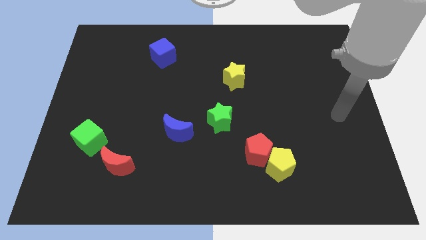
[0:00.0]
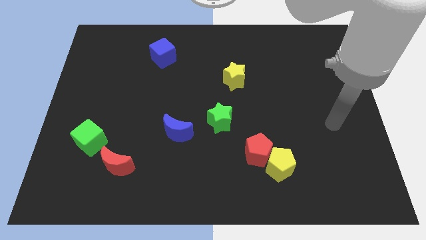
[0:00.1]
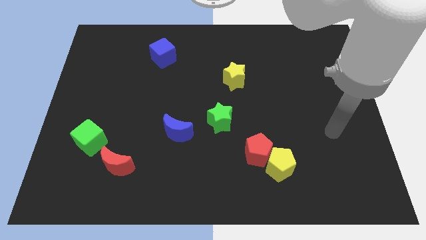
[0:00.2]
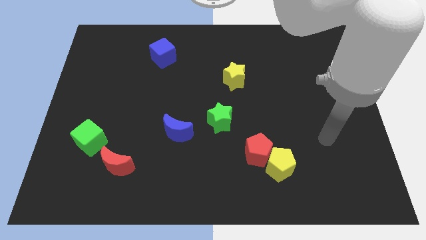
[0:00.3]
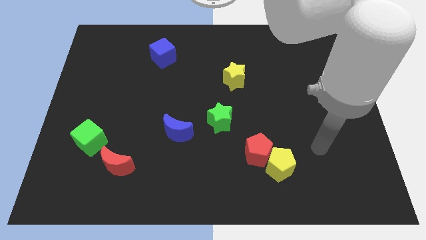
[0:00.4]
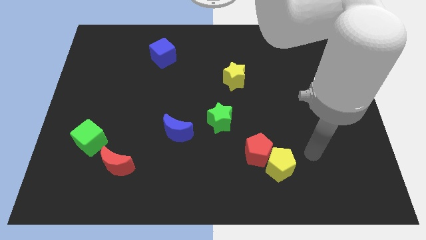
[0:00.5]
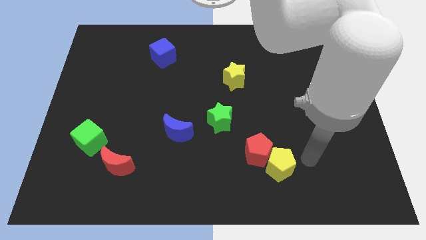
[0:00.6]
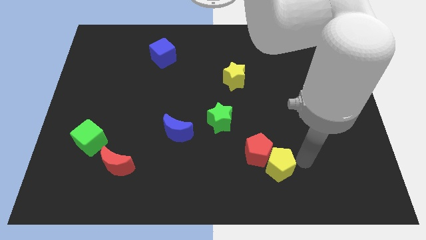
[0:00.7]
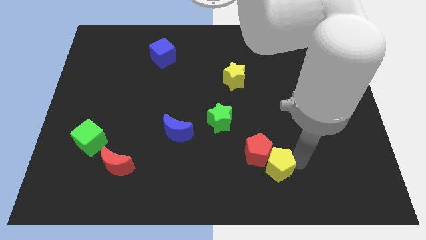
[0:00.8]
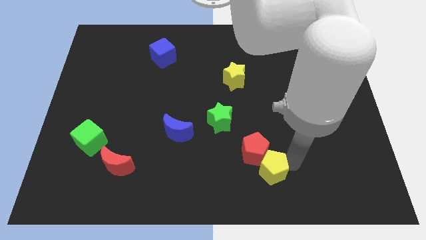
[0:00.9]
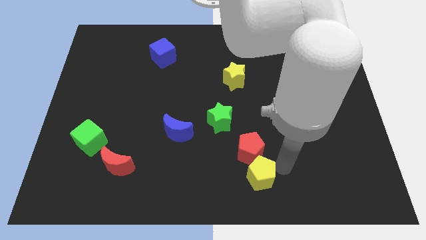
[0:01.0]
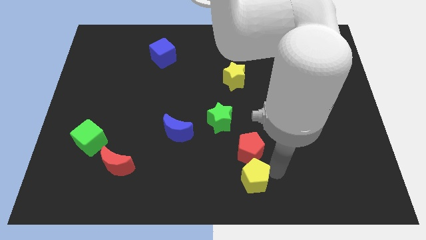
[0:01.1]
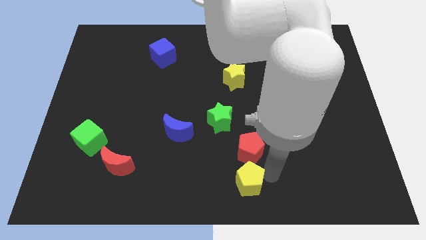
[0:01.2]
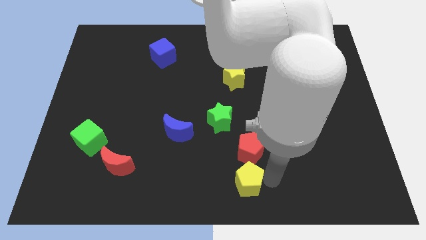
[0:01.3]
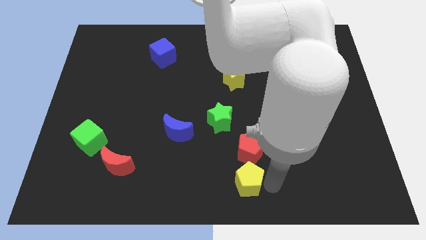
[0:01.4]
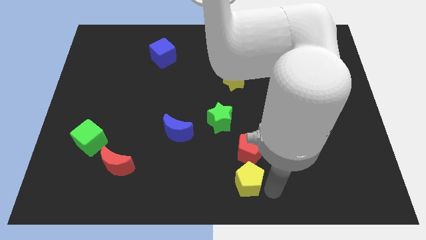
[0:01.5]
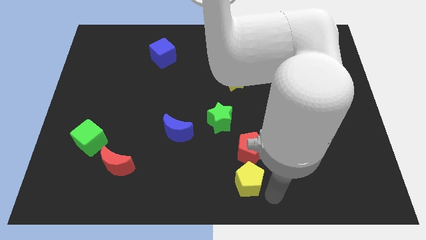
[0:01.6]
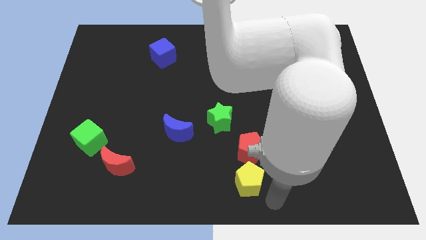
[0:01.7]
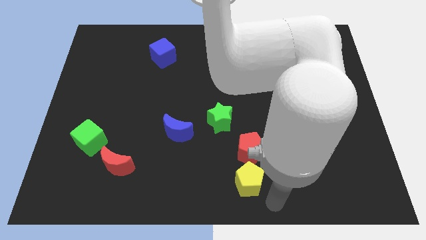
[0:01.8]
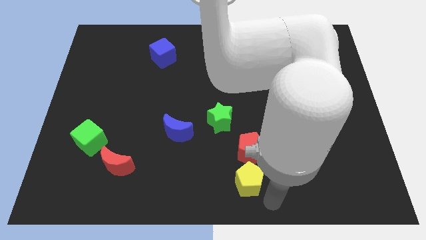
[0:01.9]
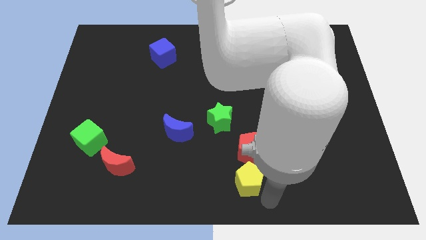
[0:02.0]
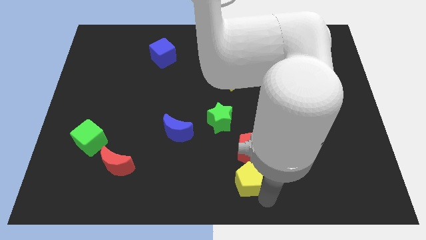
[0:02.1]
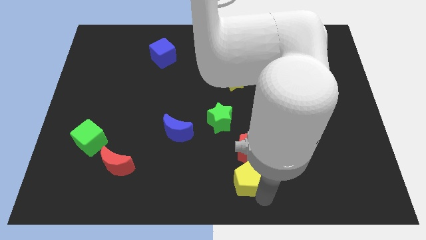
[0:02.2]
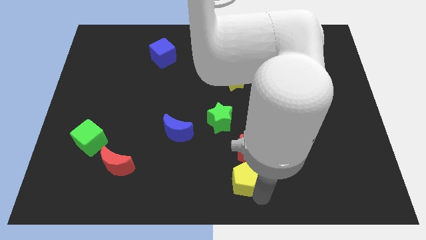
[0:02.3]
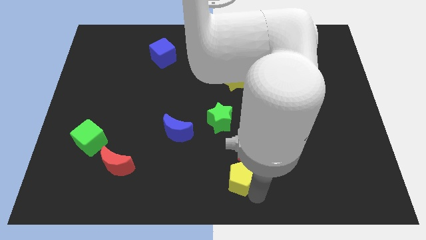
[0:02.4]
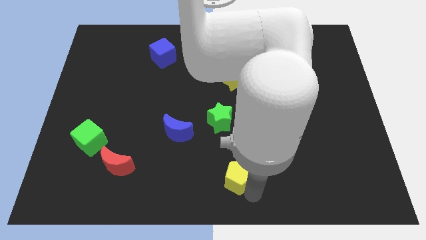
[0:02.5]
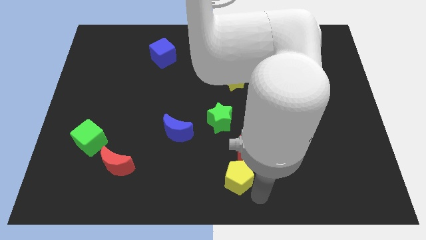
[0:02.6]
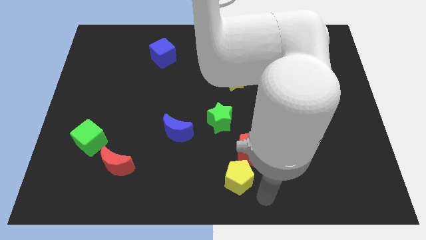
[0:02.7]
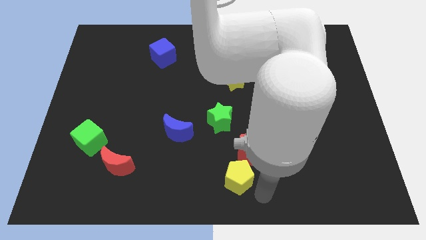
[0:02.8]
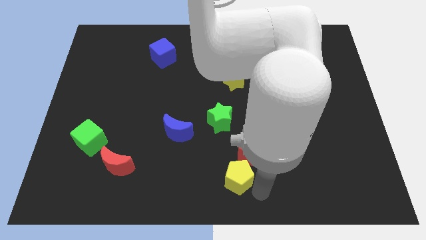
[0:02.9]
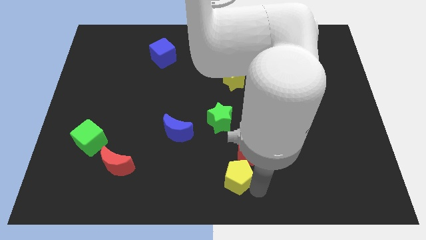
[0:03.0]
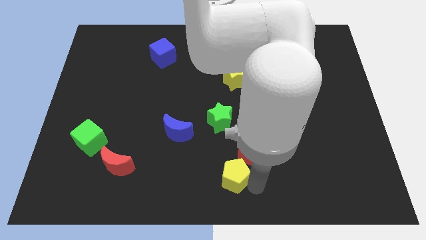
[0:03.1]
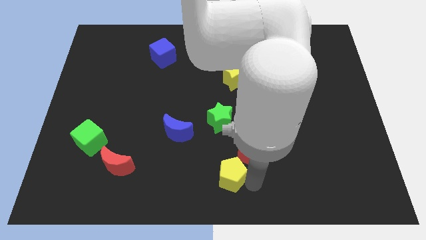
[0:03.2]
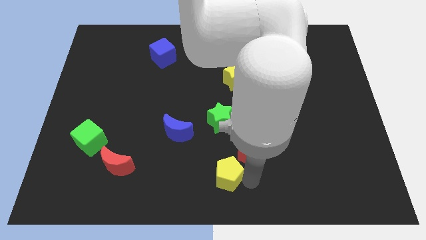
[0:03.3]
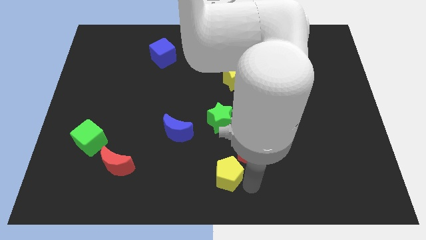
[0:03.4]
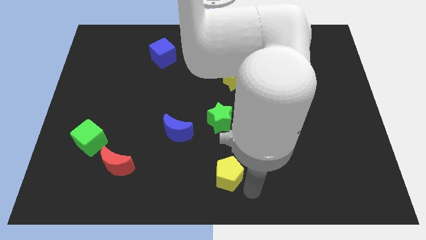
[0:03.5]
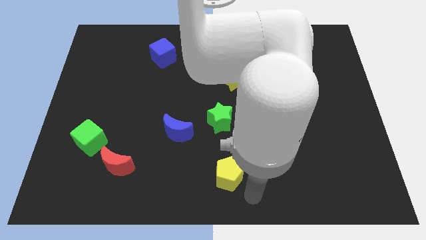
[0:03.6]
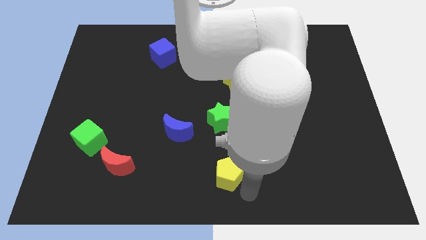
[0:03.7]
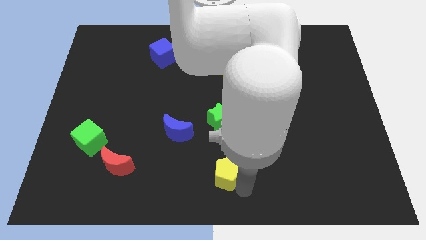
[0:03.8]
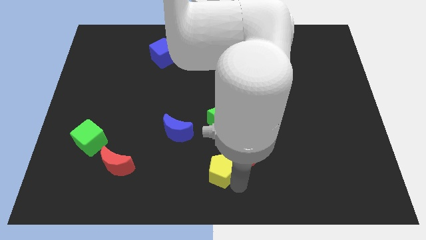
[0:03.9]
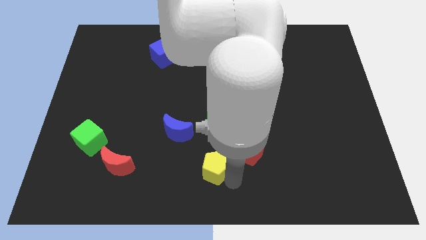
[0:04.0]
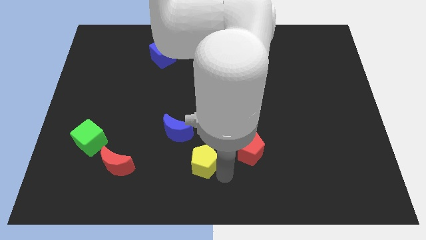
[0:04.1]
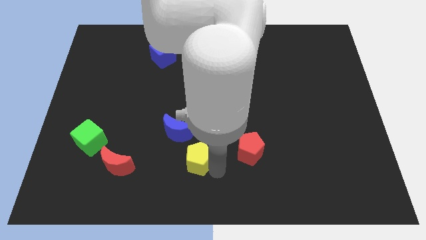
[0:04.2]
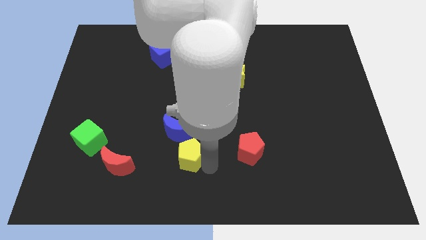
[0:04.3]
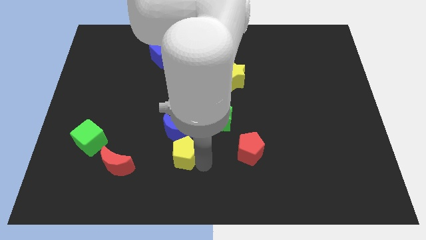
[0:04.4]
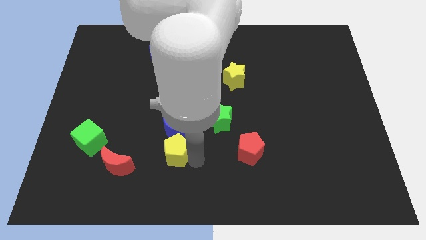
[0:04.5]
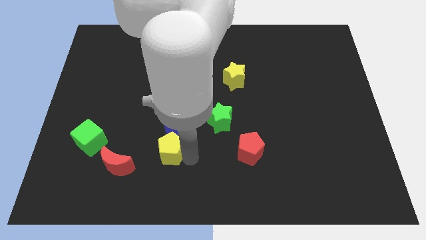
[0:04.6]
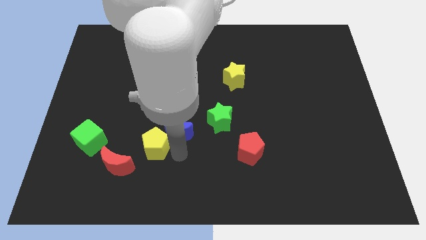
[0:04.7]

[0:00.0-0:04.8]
move the yellow pentagon left of the blue moon

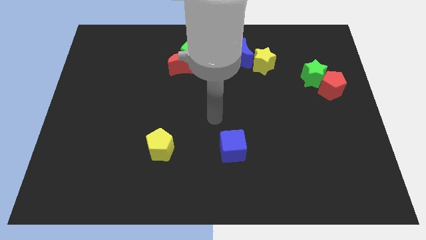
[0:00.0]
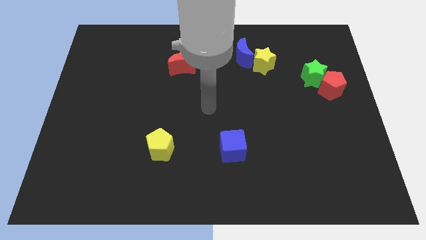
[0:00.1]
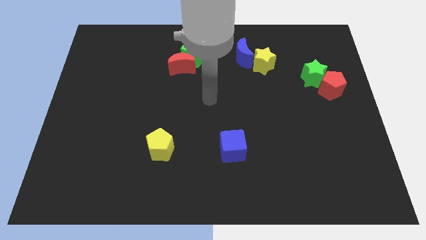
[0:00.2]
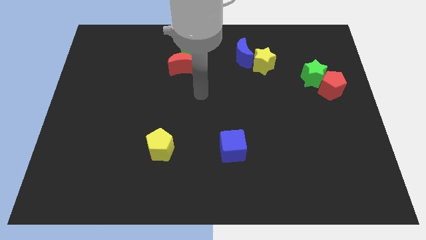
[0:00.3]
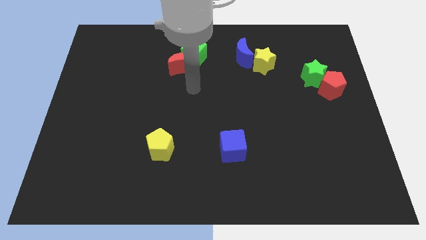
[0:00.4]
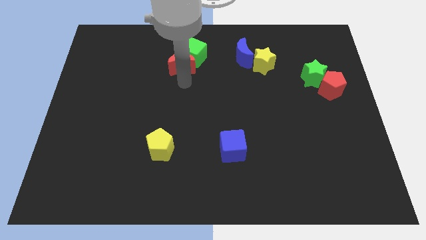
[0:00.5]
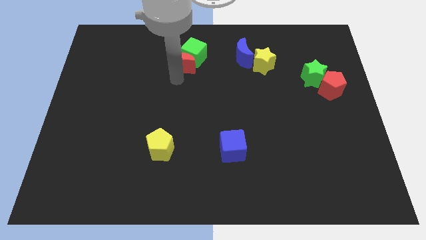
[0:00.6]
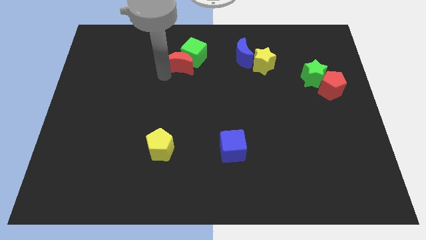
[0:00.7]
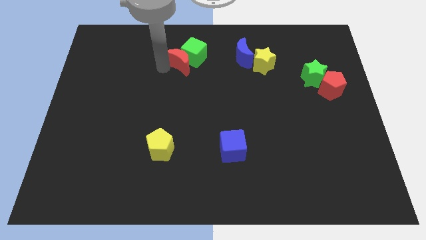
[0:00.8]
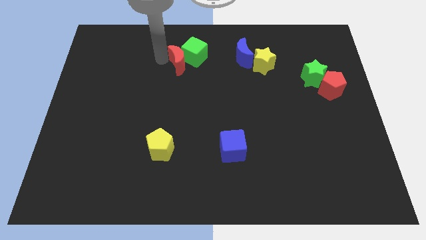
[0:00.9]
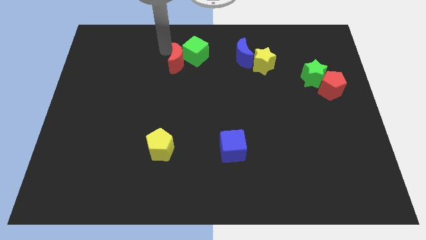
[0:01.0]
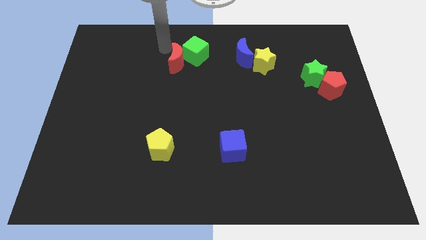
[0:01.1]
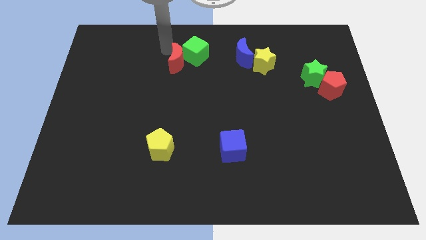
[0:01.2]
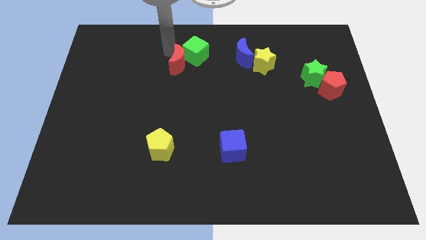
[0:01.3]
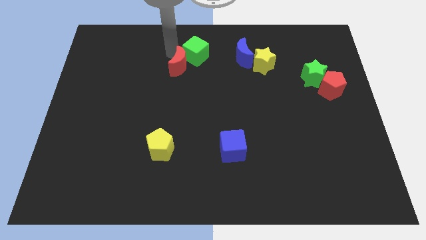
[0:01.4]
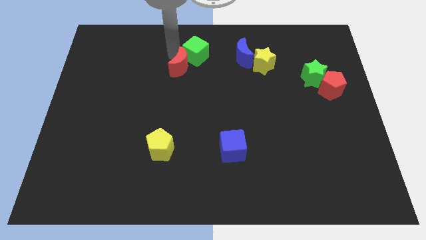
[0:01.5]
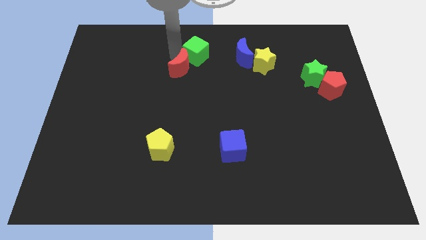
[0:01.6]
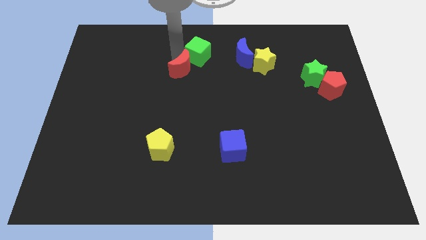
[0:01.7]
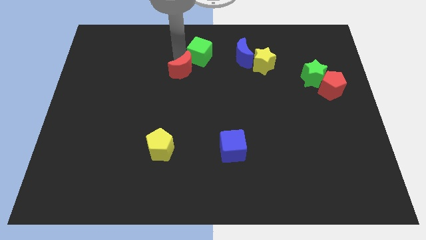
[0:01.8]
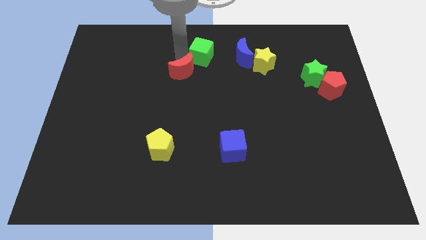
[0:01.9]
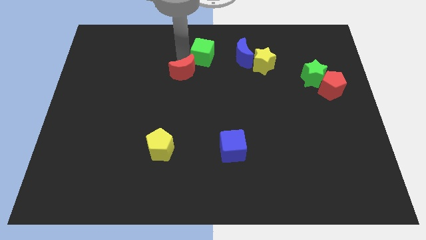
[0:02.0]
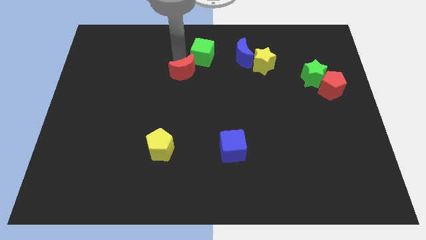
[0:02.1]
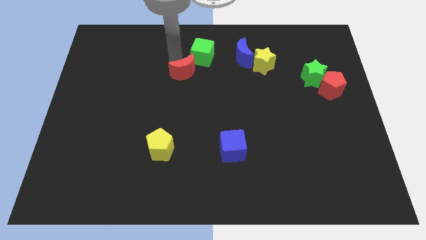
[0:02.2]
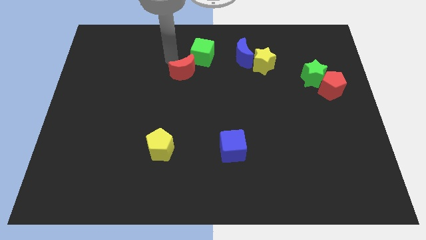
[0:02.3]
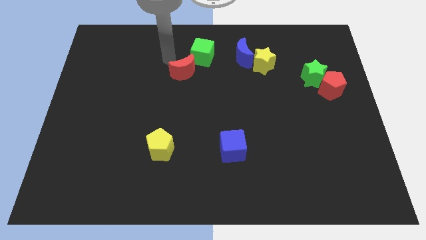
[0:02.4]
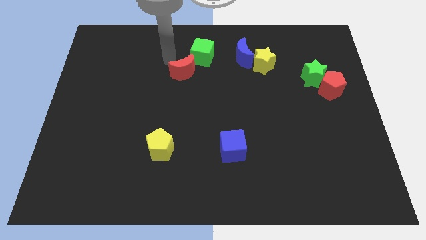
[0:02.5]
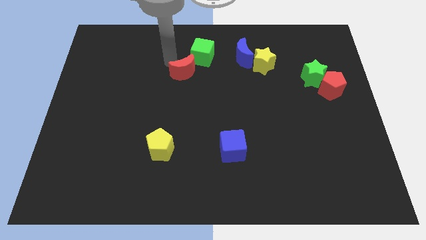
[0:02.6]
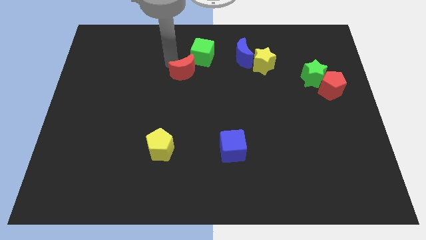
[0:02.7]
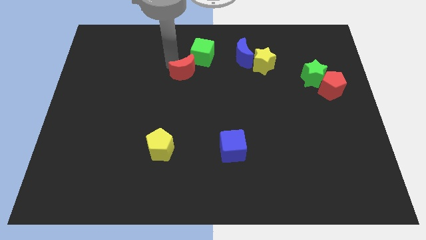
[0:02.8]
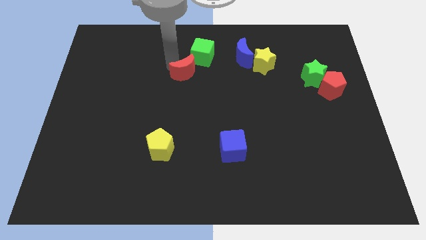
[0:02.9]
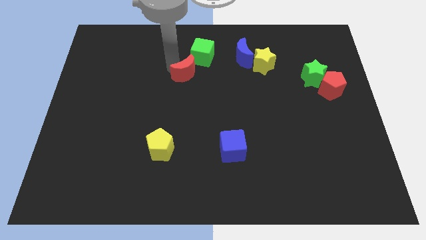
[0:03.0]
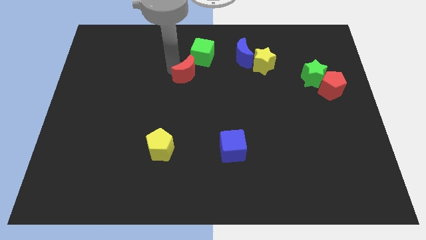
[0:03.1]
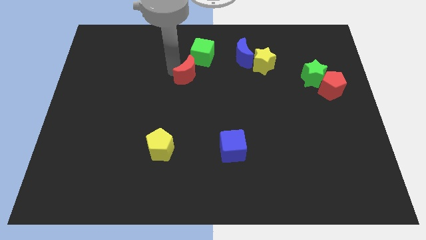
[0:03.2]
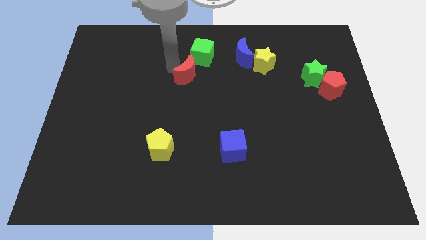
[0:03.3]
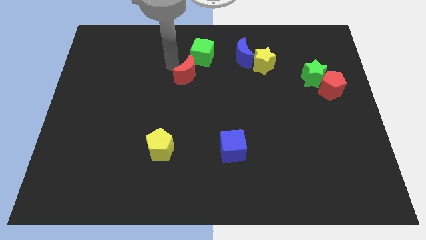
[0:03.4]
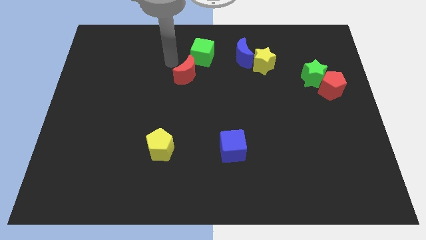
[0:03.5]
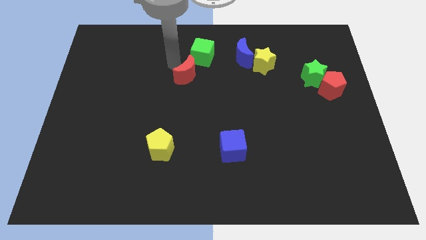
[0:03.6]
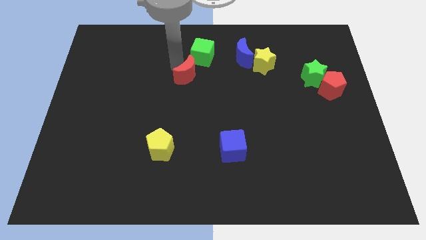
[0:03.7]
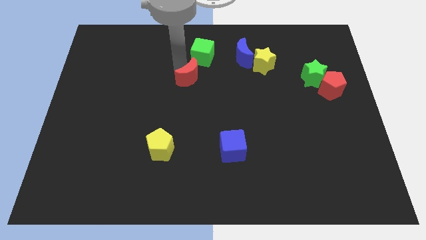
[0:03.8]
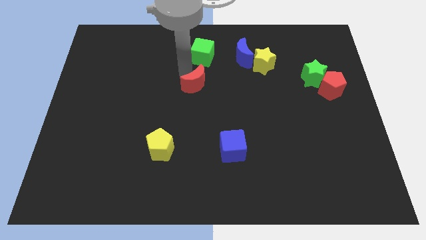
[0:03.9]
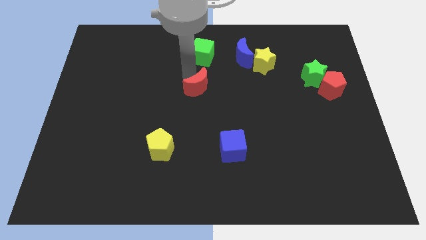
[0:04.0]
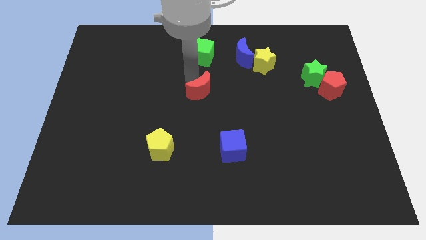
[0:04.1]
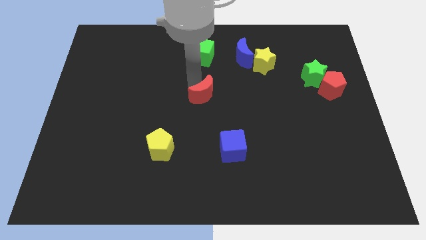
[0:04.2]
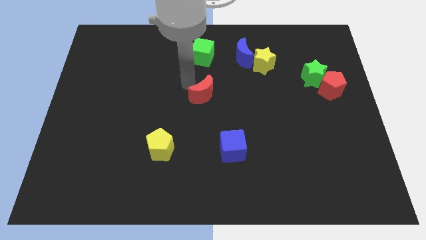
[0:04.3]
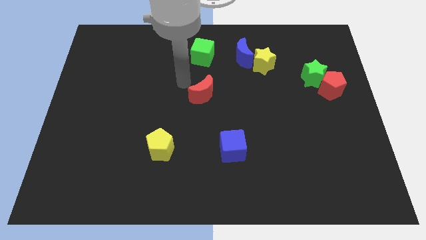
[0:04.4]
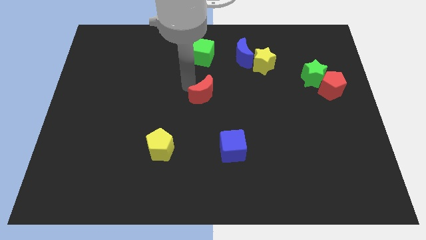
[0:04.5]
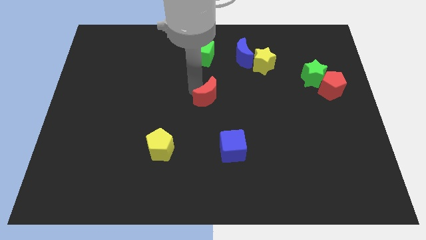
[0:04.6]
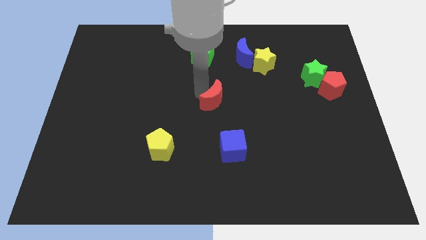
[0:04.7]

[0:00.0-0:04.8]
slide the red moon to the top of the blue cube
